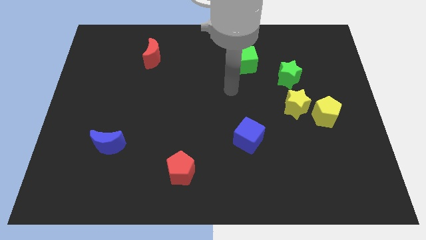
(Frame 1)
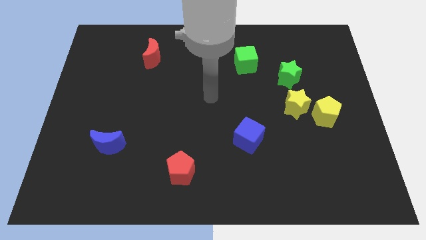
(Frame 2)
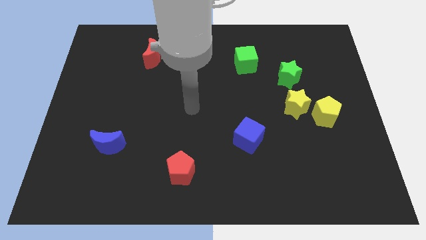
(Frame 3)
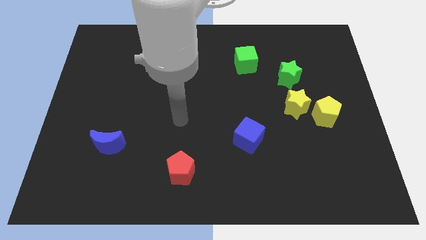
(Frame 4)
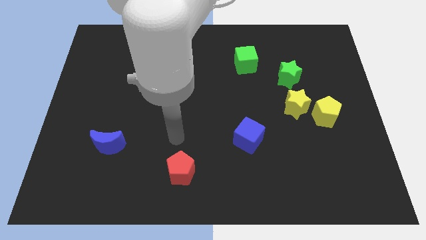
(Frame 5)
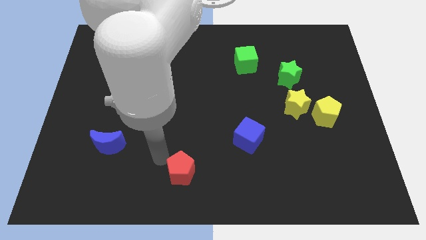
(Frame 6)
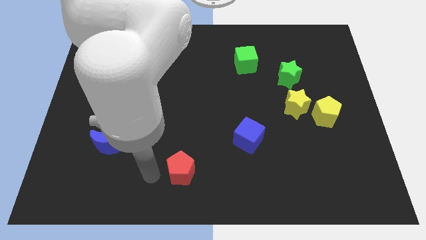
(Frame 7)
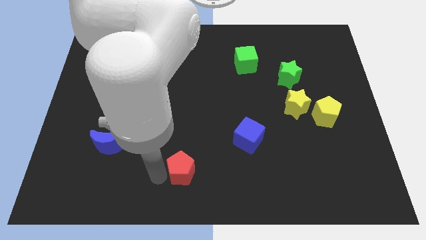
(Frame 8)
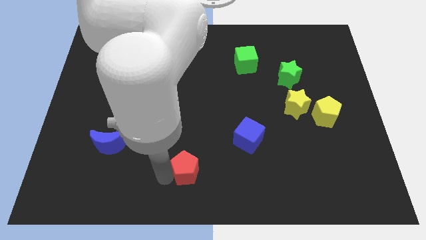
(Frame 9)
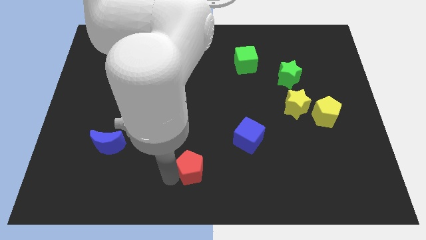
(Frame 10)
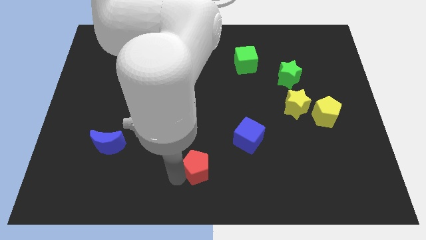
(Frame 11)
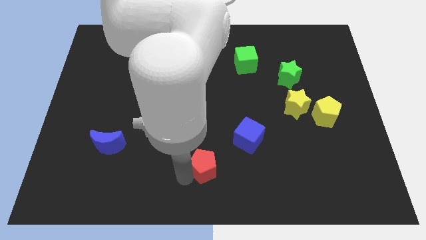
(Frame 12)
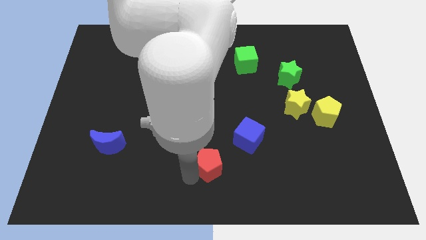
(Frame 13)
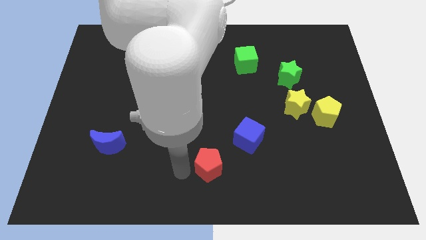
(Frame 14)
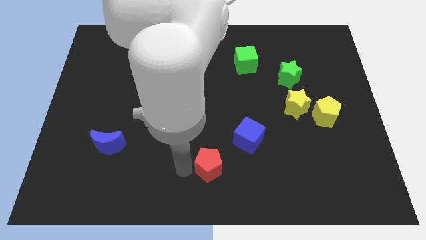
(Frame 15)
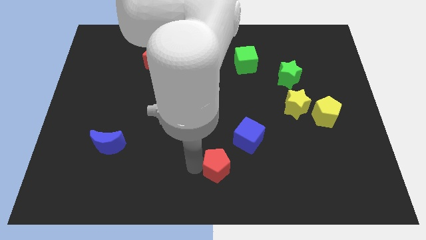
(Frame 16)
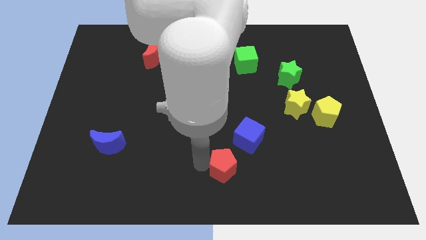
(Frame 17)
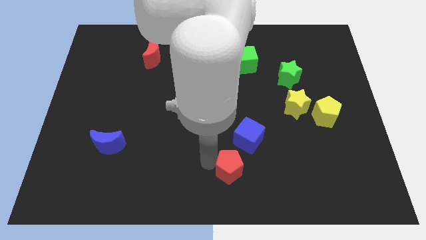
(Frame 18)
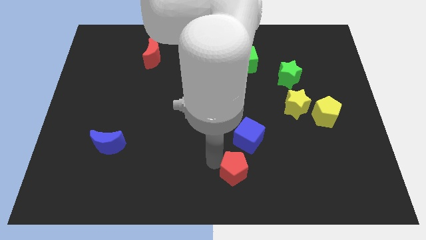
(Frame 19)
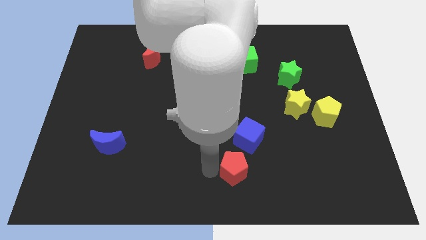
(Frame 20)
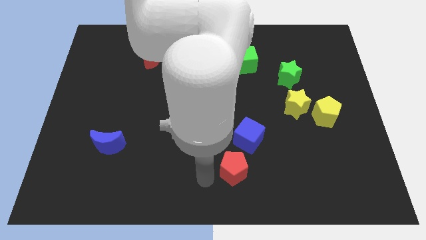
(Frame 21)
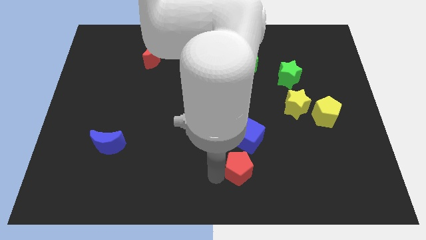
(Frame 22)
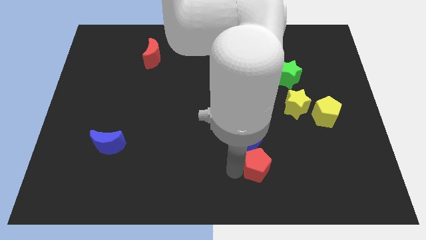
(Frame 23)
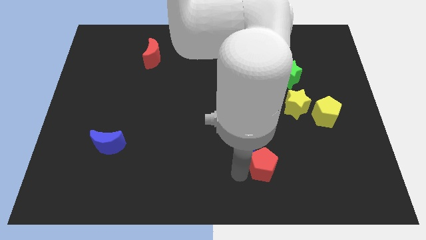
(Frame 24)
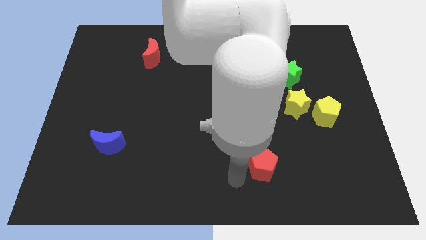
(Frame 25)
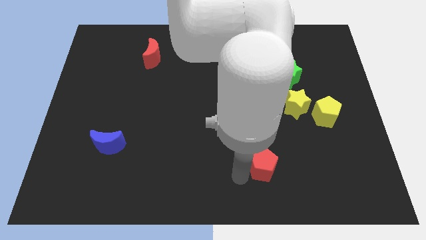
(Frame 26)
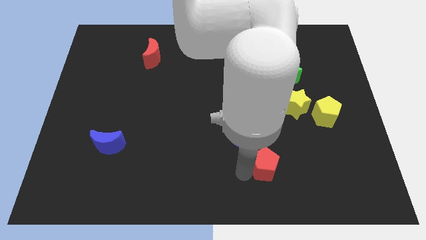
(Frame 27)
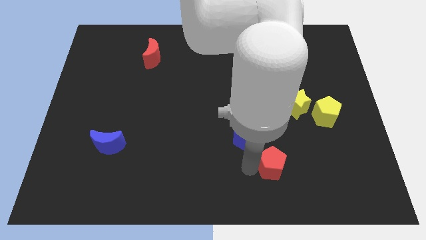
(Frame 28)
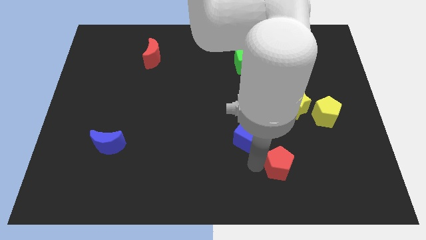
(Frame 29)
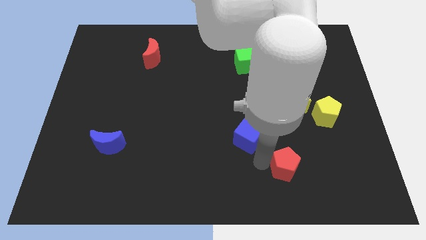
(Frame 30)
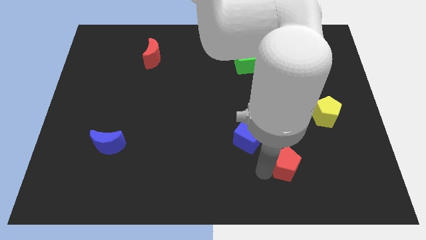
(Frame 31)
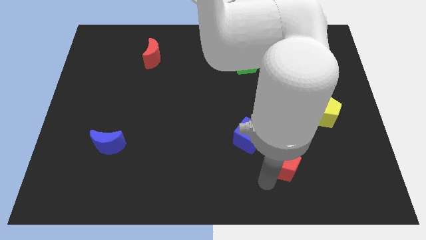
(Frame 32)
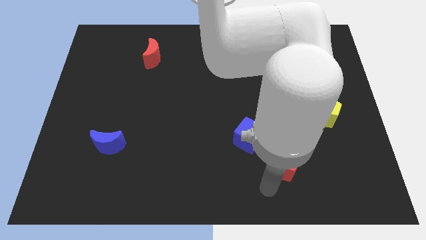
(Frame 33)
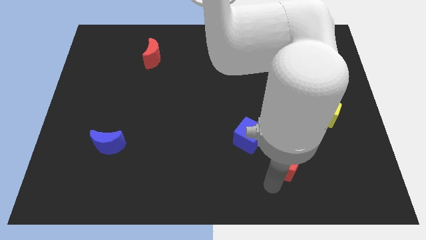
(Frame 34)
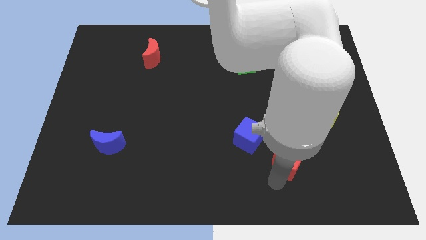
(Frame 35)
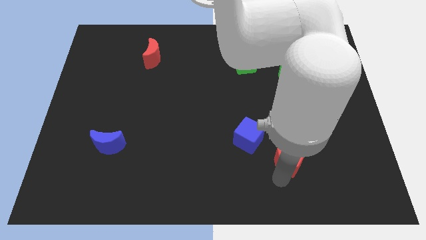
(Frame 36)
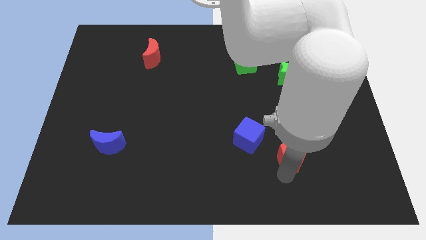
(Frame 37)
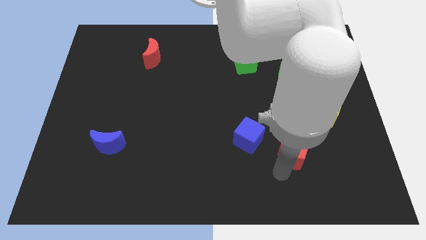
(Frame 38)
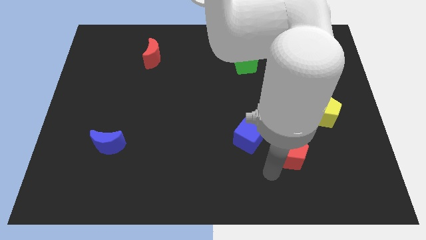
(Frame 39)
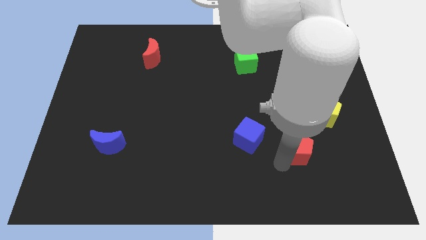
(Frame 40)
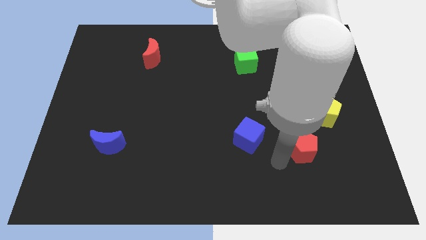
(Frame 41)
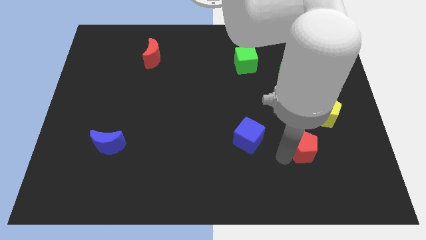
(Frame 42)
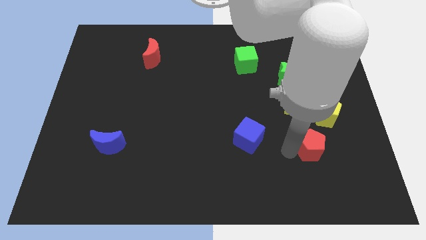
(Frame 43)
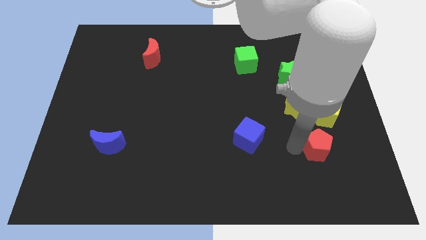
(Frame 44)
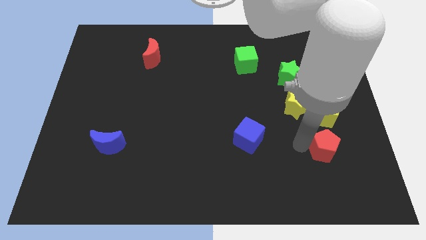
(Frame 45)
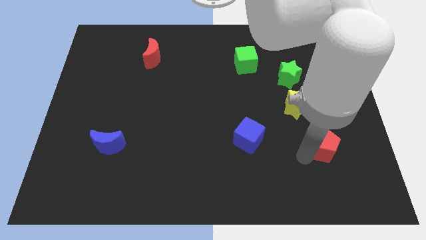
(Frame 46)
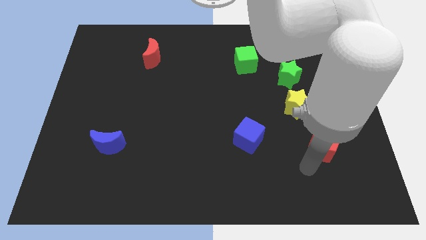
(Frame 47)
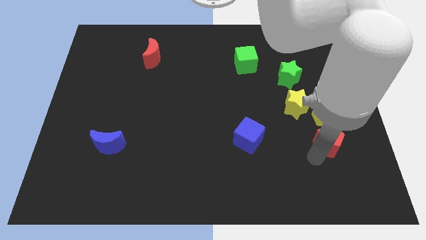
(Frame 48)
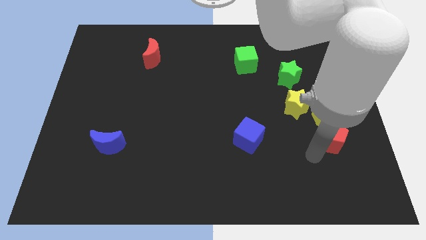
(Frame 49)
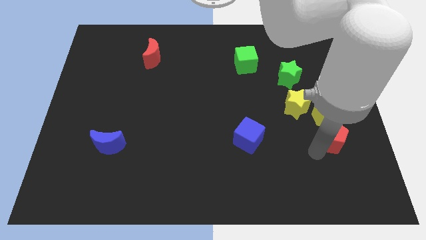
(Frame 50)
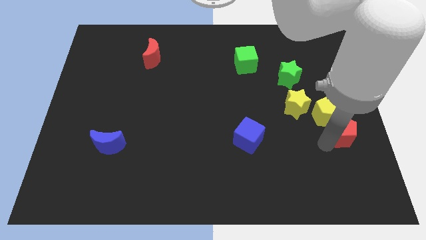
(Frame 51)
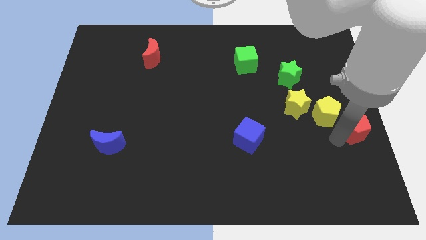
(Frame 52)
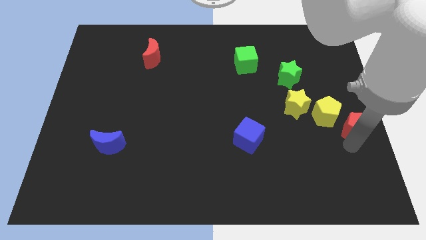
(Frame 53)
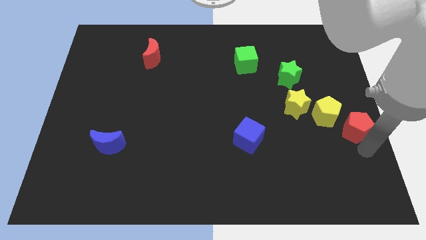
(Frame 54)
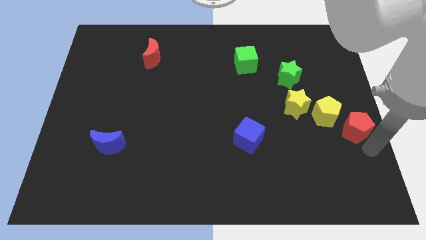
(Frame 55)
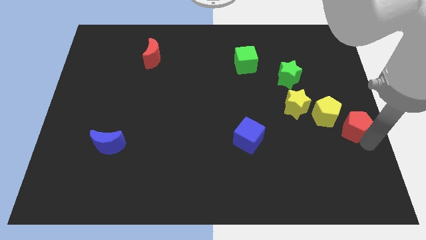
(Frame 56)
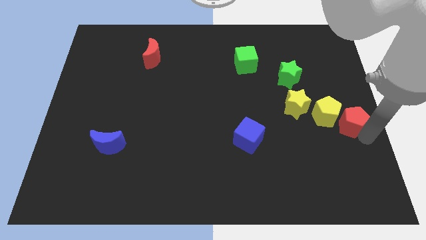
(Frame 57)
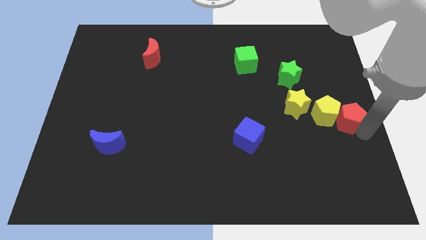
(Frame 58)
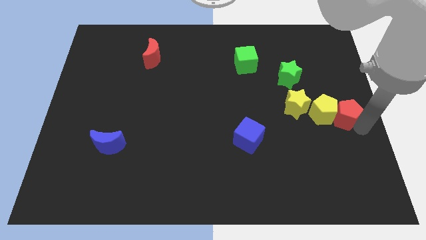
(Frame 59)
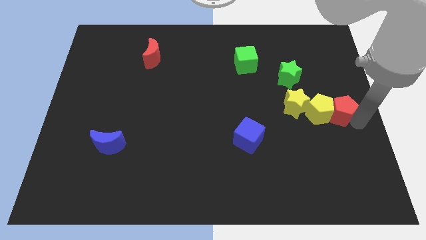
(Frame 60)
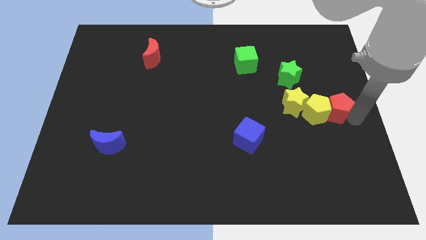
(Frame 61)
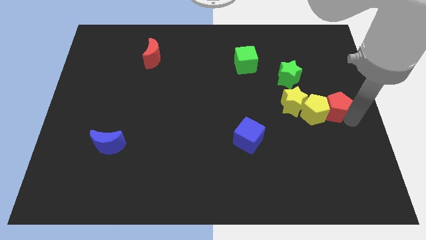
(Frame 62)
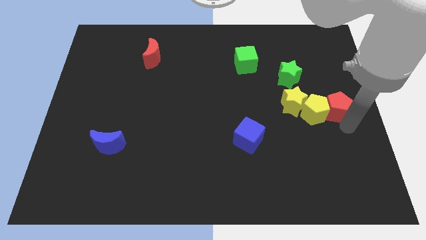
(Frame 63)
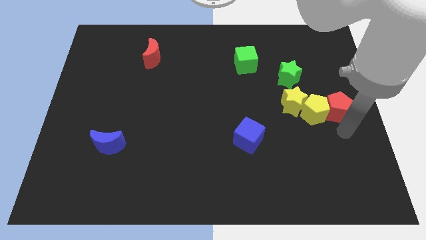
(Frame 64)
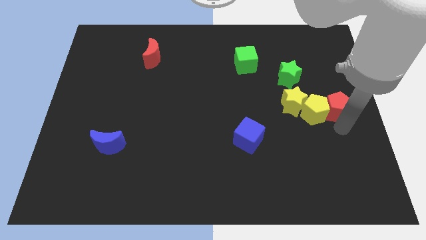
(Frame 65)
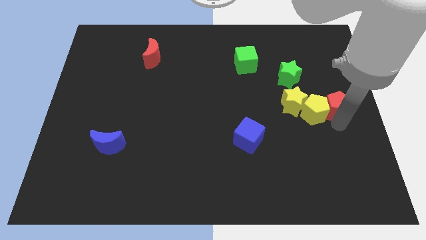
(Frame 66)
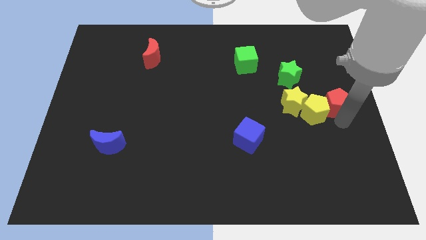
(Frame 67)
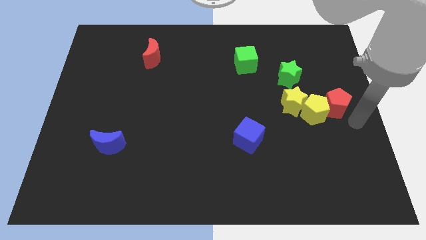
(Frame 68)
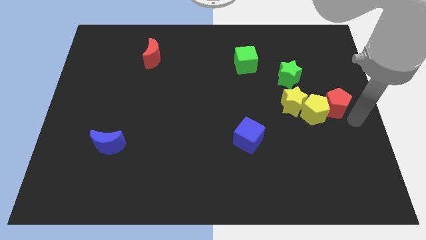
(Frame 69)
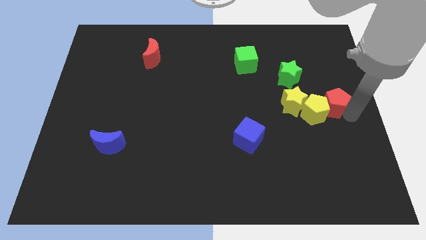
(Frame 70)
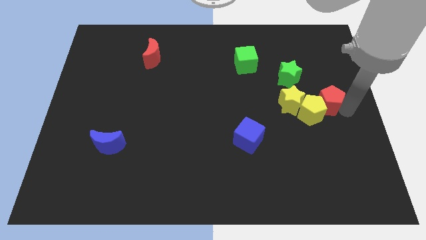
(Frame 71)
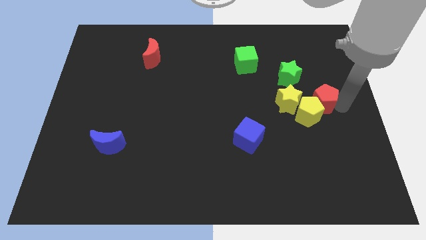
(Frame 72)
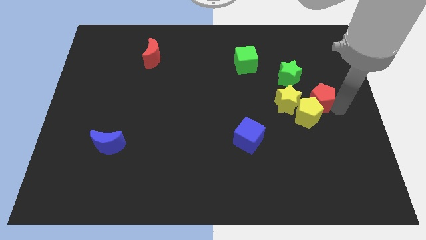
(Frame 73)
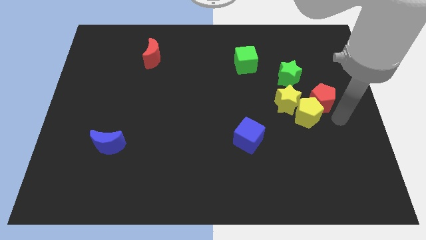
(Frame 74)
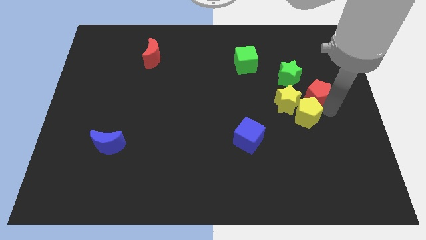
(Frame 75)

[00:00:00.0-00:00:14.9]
put the red pentagon to the top right side of the yellow star
